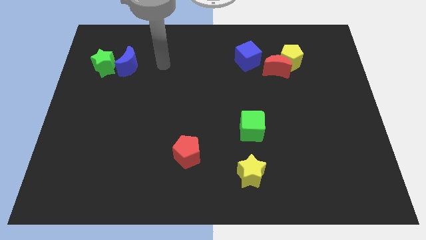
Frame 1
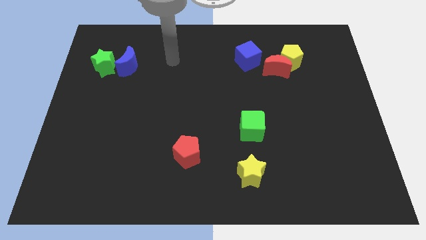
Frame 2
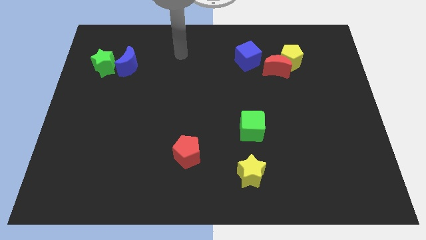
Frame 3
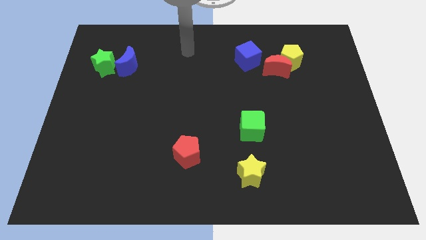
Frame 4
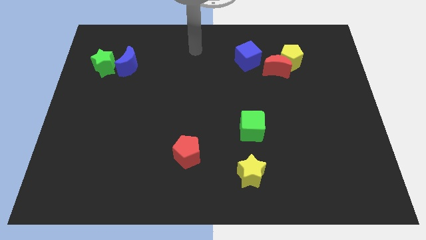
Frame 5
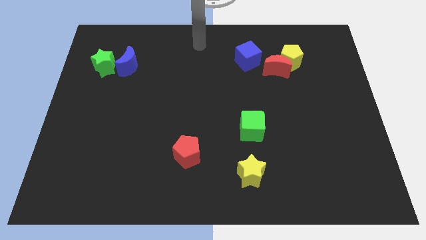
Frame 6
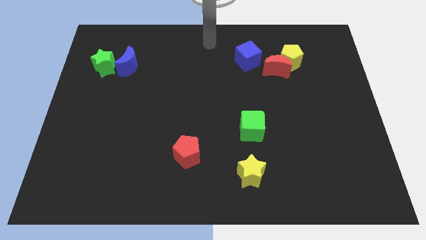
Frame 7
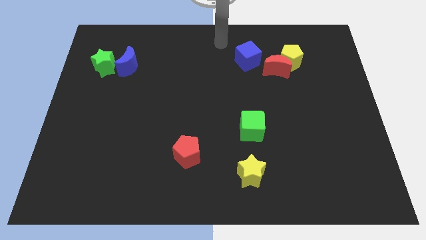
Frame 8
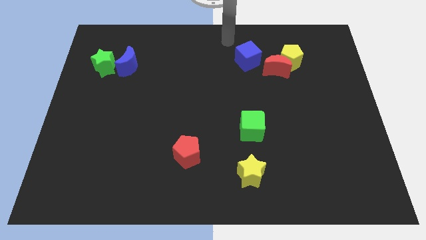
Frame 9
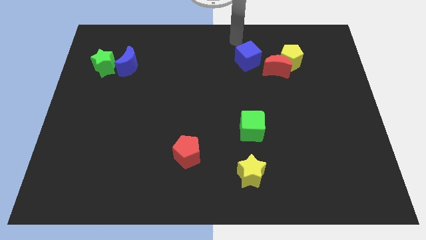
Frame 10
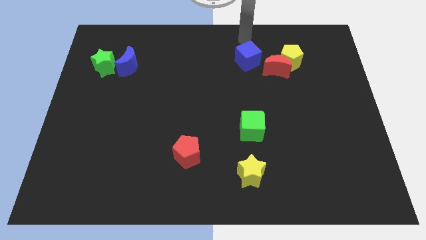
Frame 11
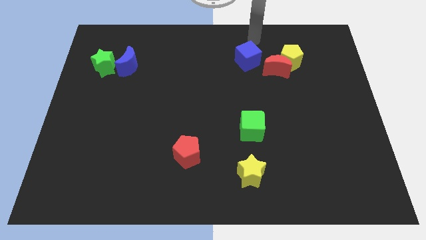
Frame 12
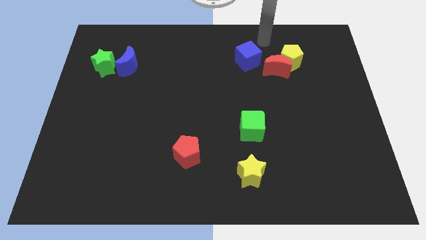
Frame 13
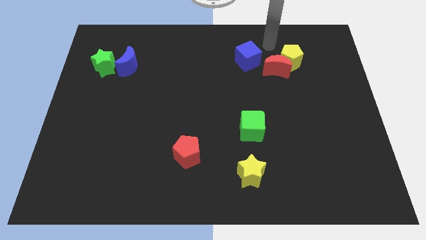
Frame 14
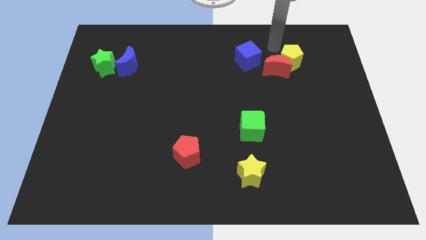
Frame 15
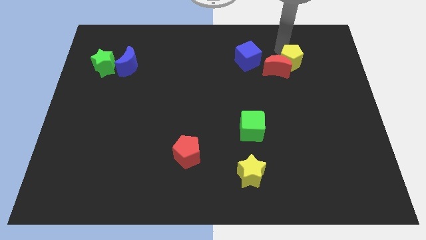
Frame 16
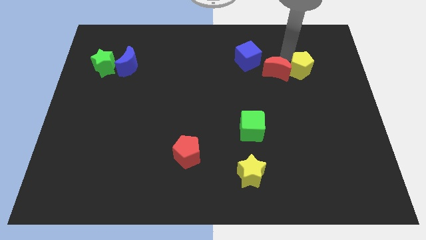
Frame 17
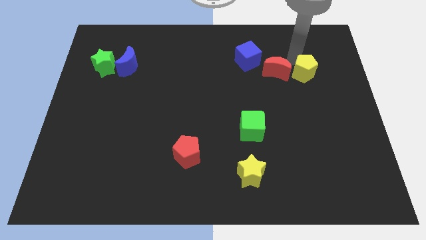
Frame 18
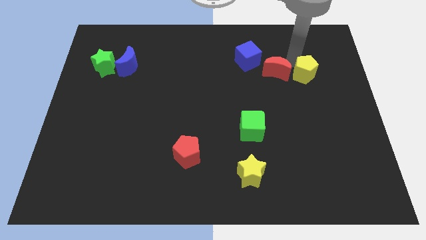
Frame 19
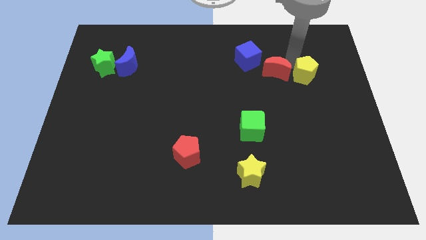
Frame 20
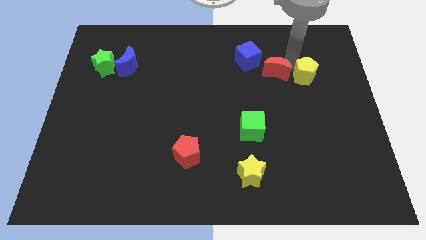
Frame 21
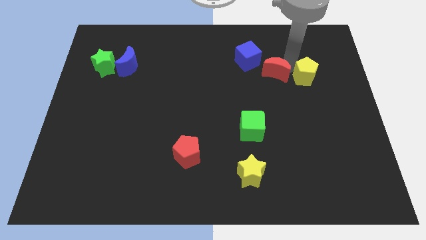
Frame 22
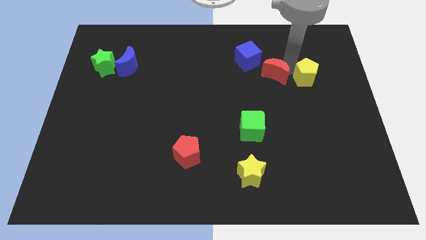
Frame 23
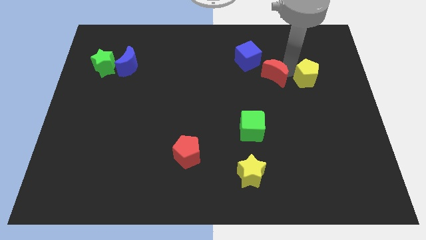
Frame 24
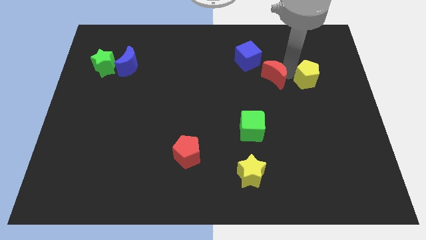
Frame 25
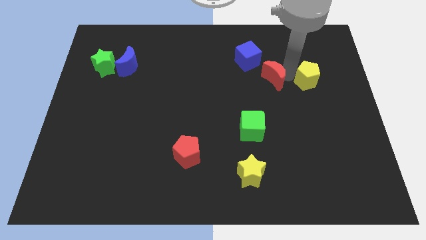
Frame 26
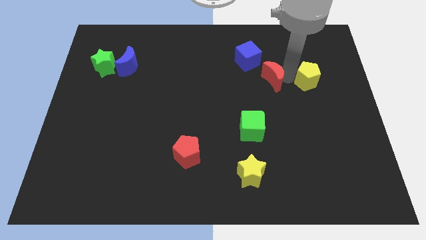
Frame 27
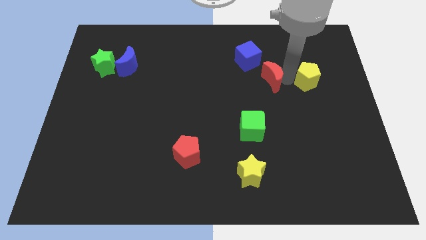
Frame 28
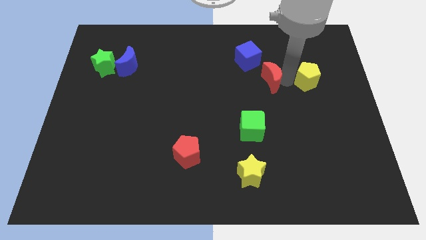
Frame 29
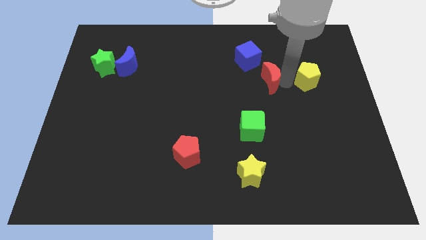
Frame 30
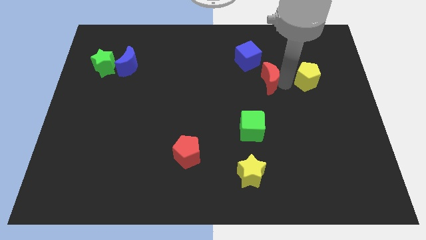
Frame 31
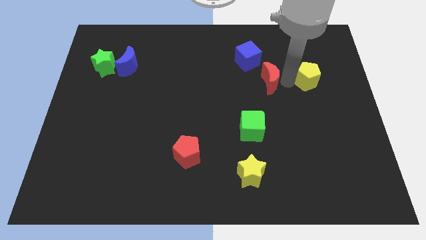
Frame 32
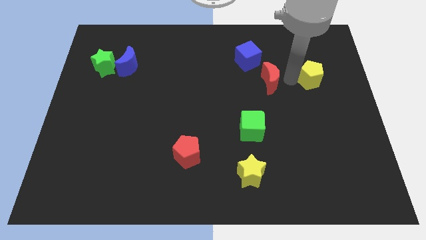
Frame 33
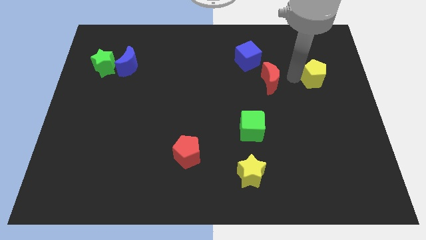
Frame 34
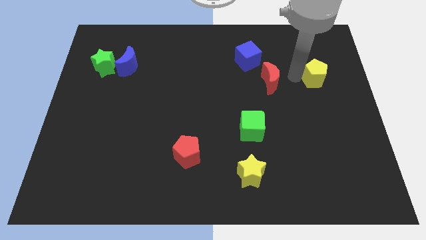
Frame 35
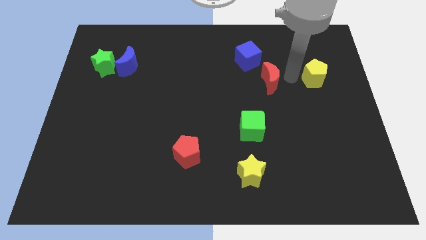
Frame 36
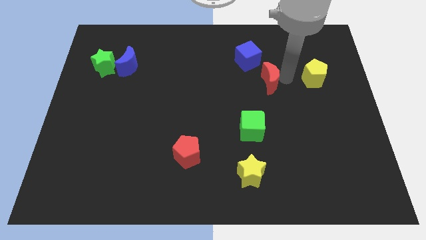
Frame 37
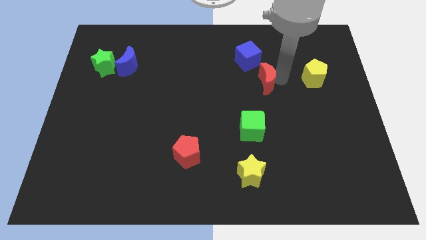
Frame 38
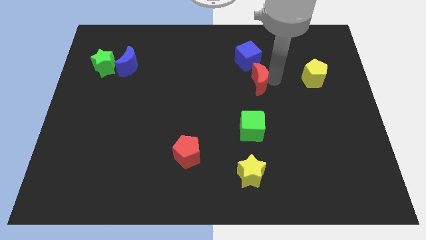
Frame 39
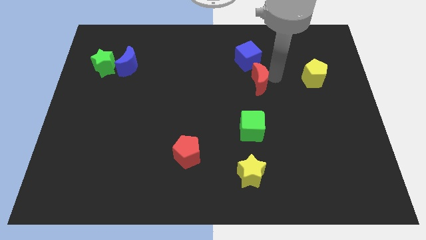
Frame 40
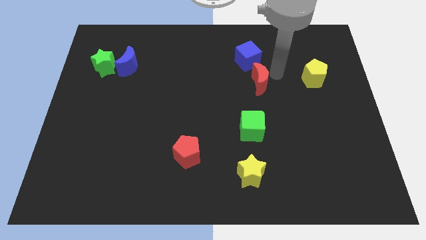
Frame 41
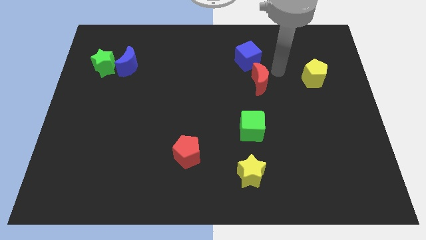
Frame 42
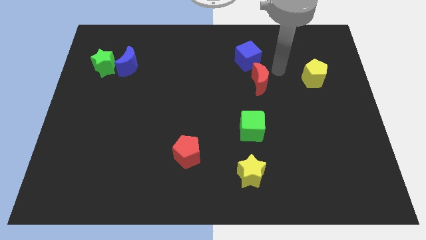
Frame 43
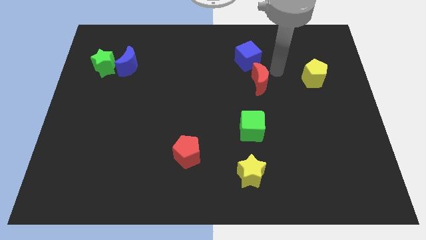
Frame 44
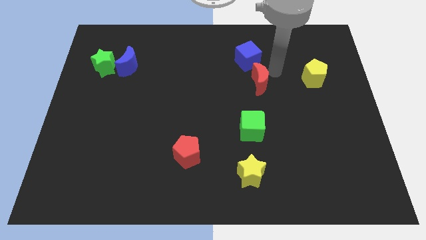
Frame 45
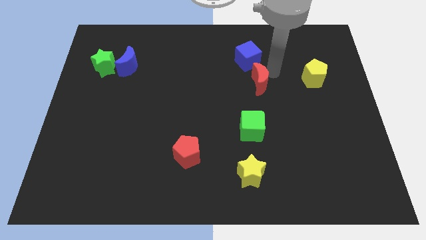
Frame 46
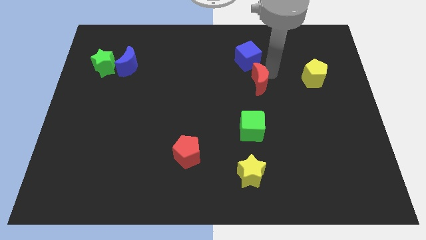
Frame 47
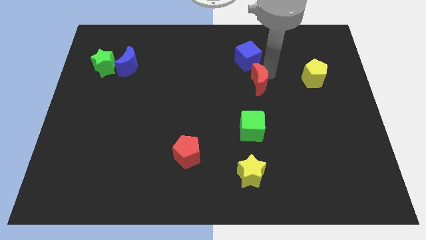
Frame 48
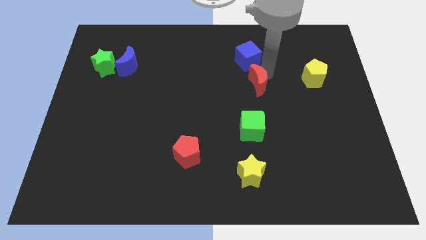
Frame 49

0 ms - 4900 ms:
push the red moon a little diagonally downwards and left

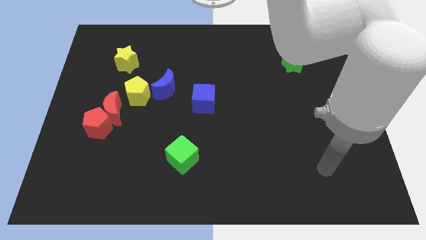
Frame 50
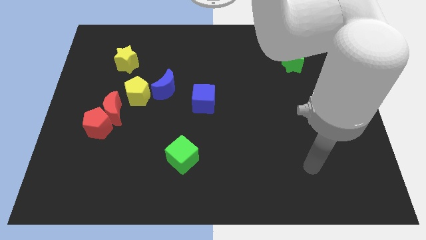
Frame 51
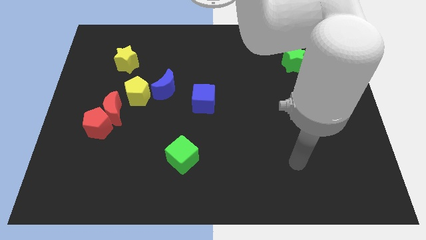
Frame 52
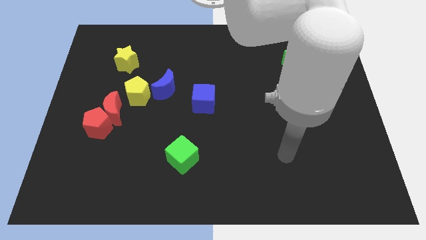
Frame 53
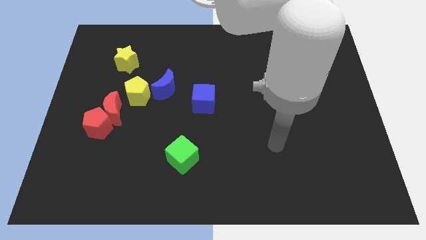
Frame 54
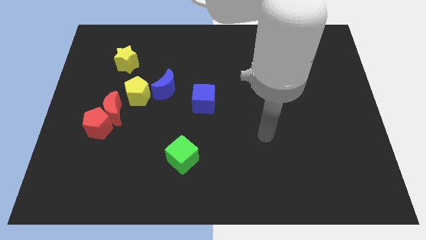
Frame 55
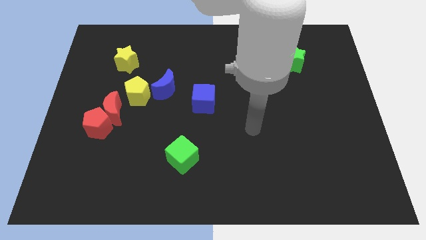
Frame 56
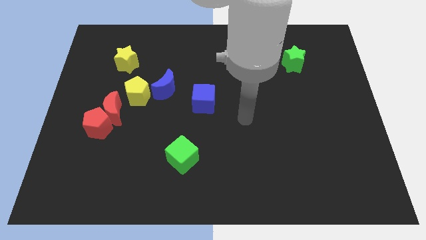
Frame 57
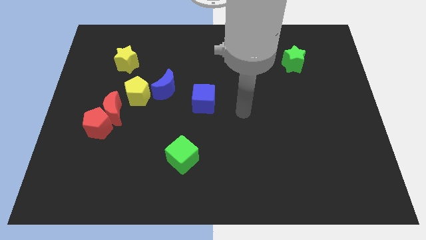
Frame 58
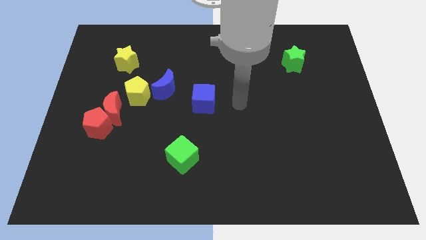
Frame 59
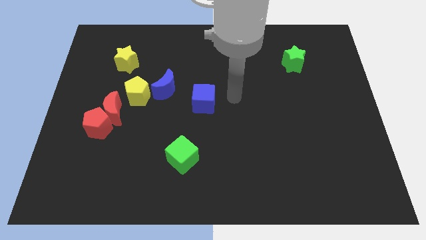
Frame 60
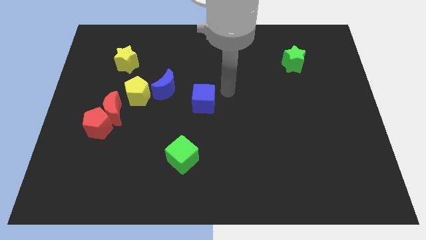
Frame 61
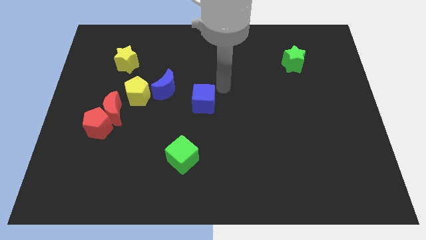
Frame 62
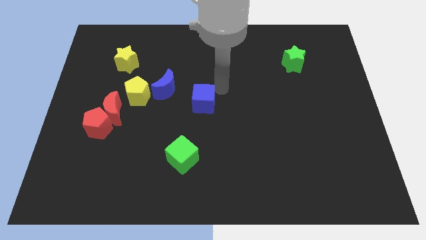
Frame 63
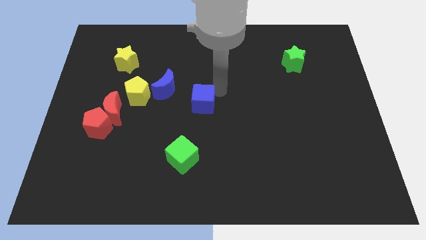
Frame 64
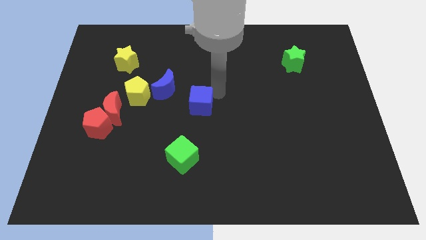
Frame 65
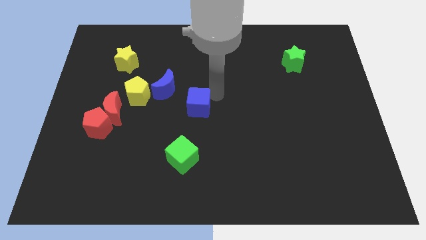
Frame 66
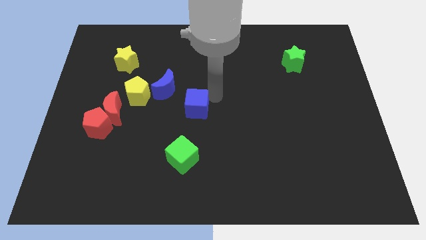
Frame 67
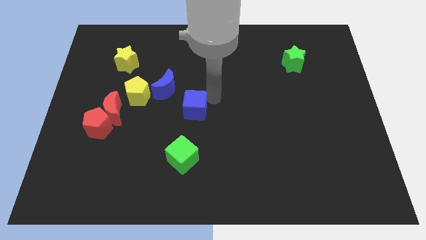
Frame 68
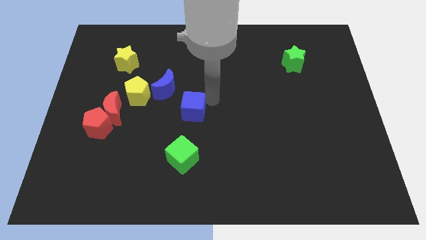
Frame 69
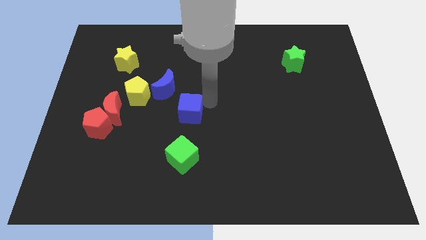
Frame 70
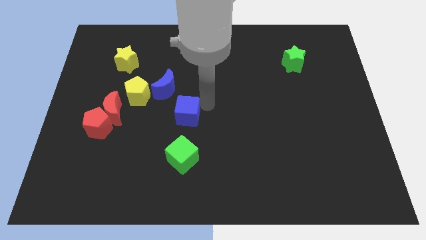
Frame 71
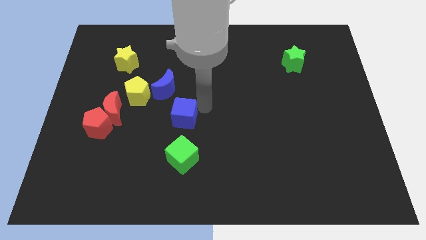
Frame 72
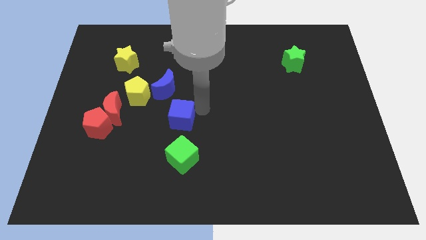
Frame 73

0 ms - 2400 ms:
slide the blue cube down and then left a little bit

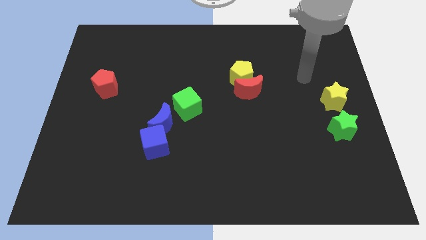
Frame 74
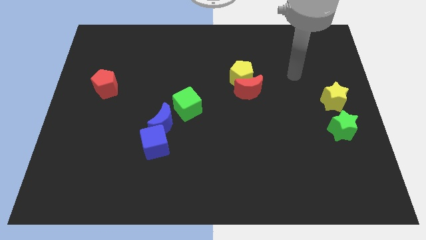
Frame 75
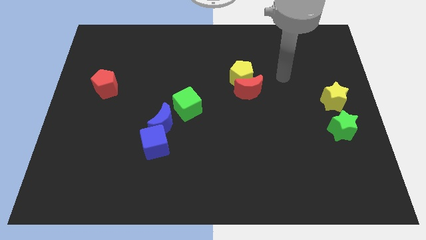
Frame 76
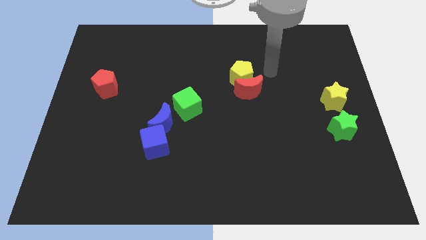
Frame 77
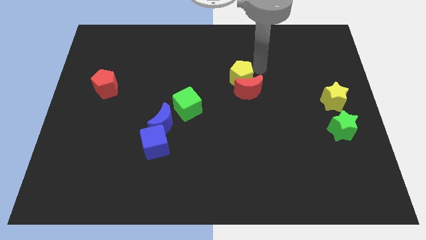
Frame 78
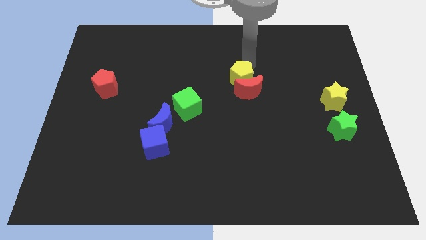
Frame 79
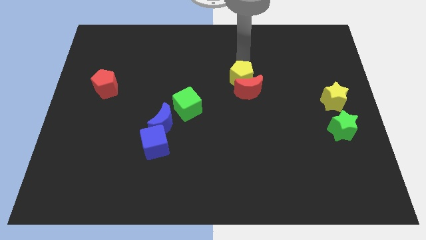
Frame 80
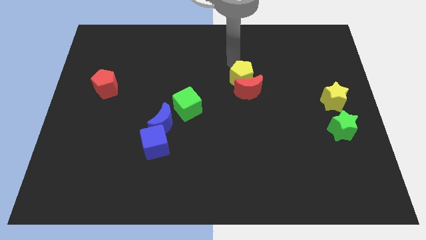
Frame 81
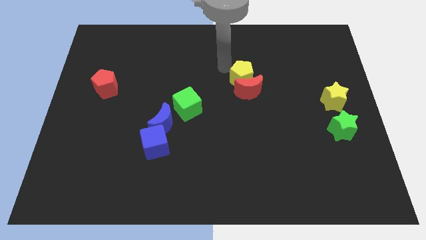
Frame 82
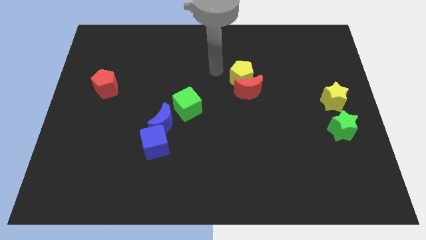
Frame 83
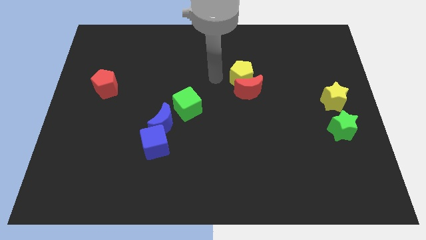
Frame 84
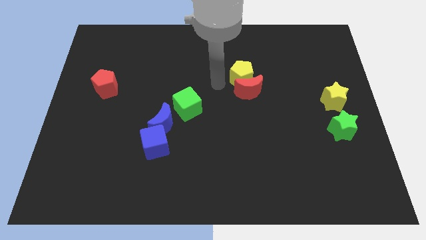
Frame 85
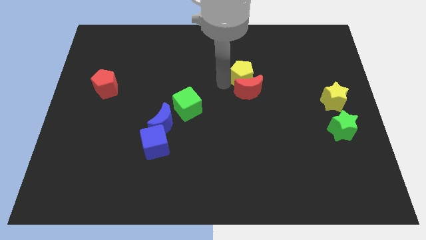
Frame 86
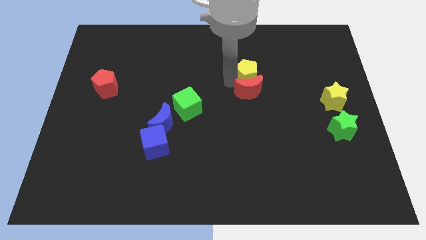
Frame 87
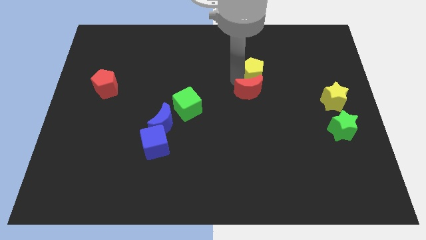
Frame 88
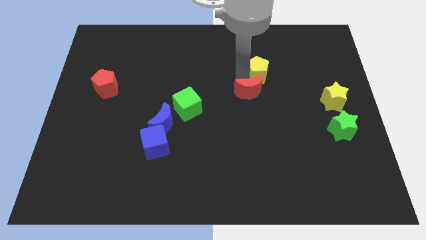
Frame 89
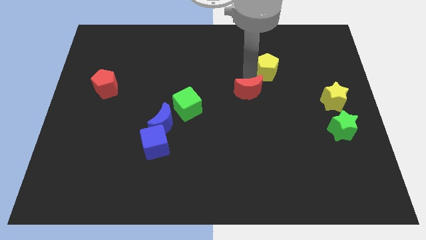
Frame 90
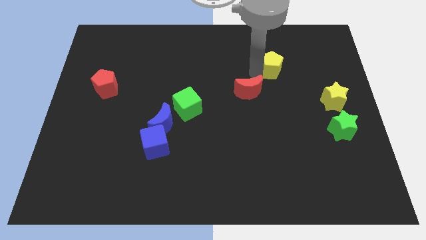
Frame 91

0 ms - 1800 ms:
slightly move the yellow pentagon to the right
